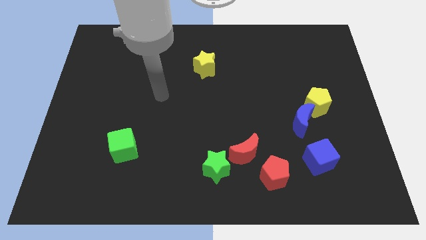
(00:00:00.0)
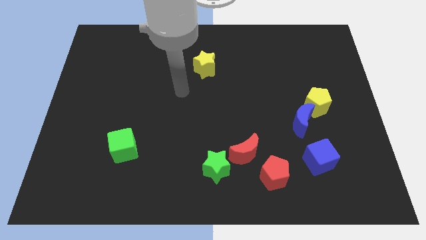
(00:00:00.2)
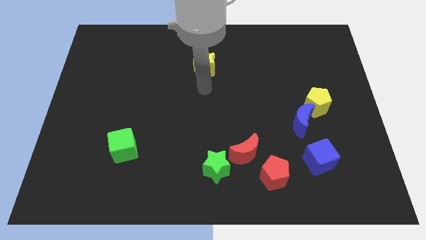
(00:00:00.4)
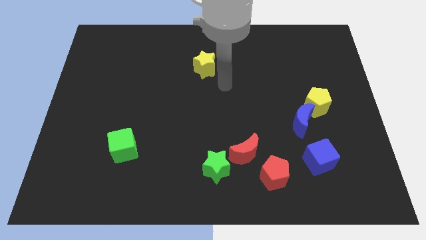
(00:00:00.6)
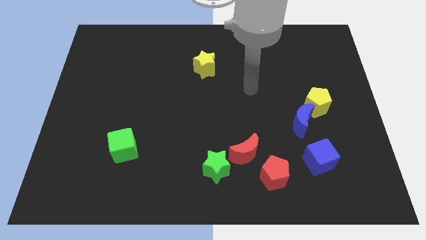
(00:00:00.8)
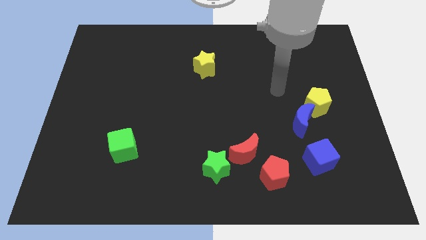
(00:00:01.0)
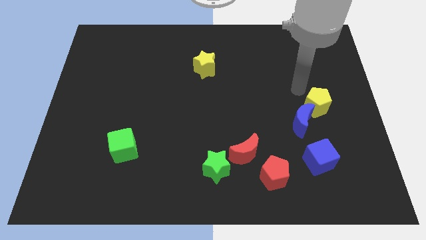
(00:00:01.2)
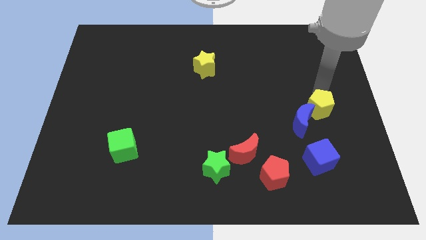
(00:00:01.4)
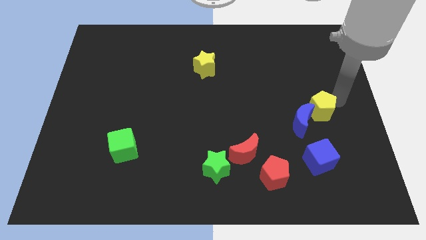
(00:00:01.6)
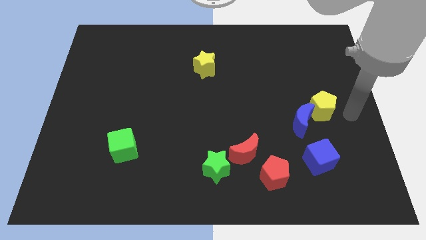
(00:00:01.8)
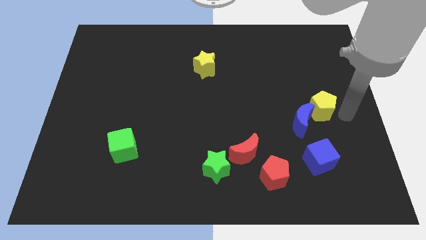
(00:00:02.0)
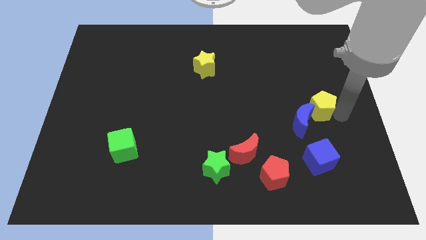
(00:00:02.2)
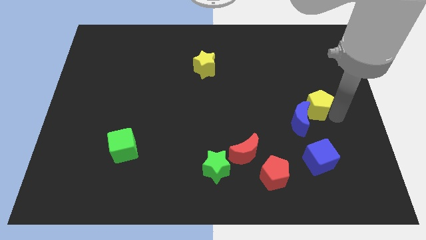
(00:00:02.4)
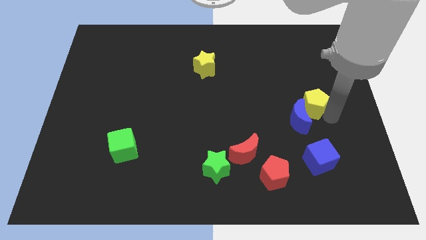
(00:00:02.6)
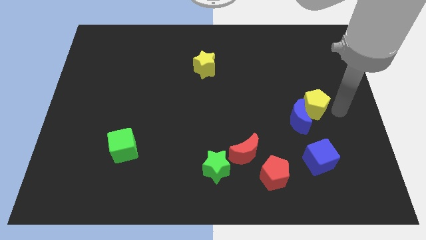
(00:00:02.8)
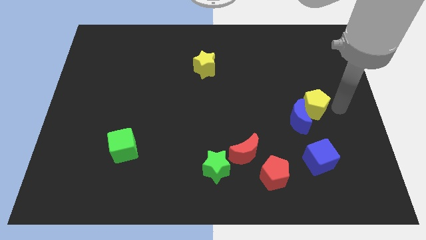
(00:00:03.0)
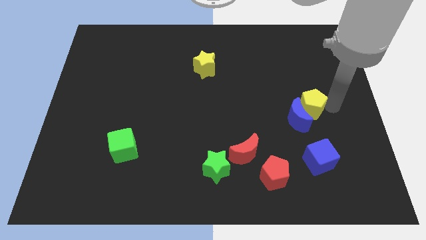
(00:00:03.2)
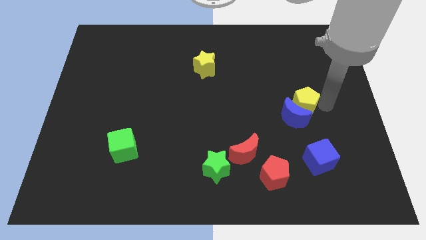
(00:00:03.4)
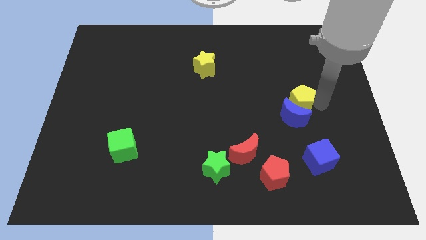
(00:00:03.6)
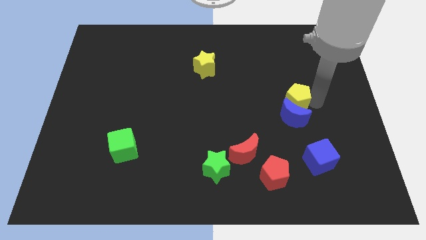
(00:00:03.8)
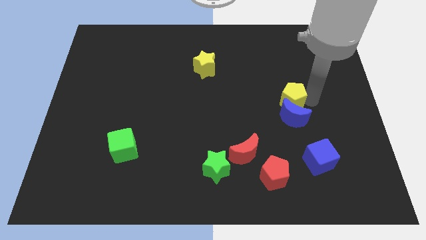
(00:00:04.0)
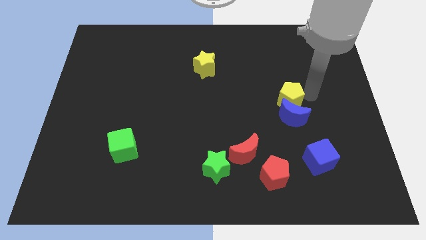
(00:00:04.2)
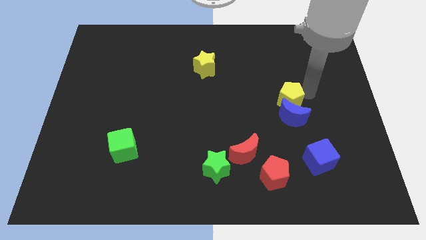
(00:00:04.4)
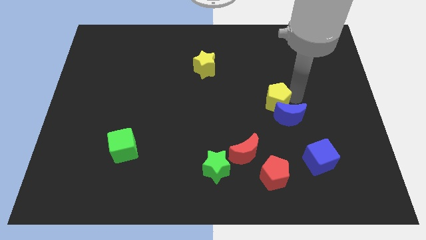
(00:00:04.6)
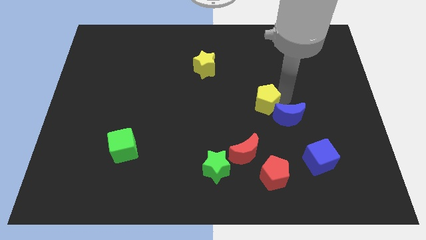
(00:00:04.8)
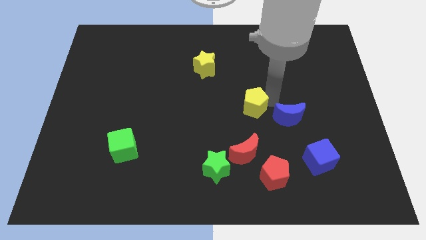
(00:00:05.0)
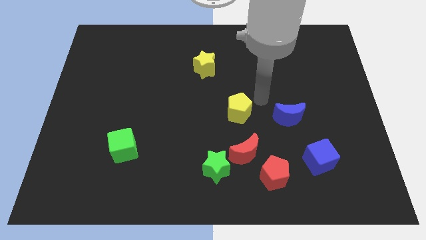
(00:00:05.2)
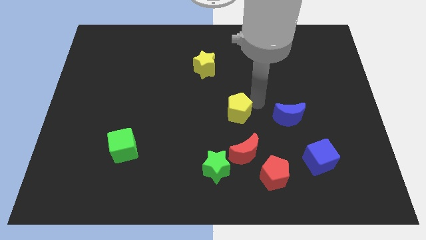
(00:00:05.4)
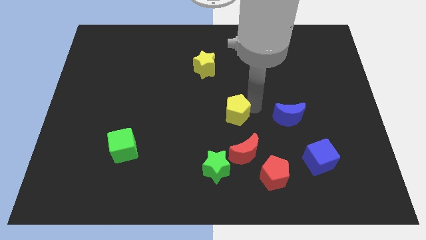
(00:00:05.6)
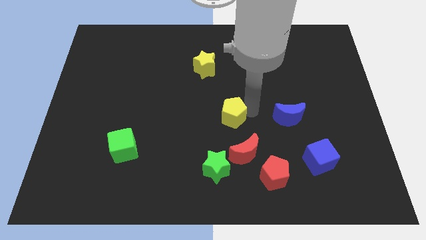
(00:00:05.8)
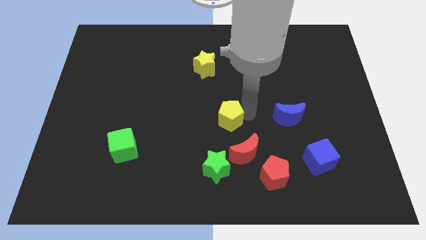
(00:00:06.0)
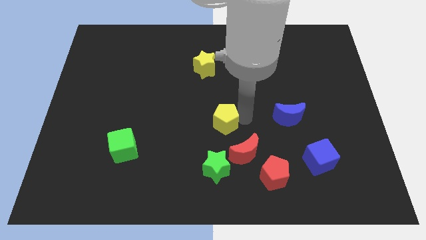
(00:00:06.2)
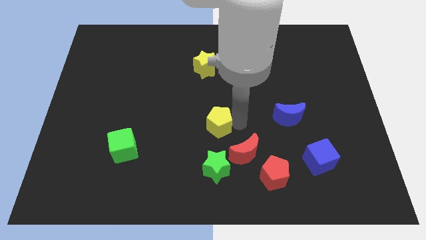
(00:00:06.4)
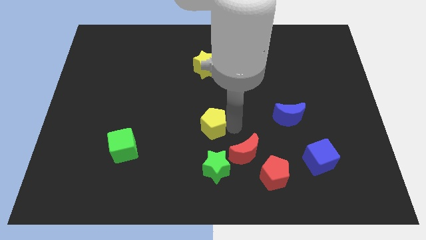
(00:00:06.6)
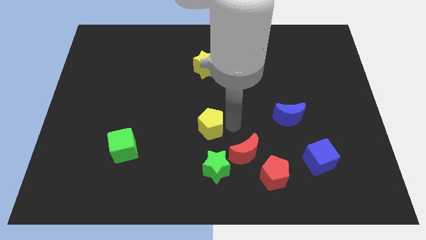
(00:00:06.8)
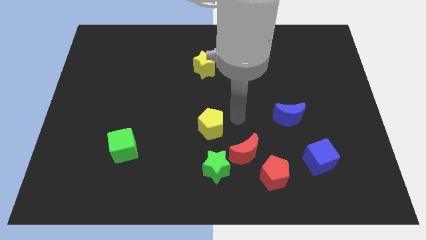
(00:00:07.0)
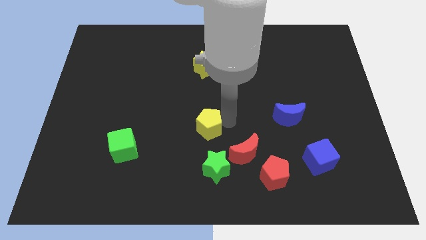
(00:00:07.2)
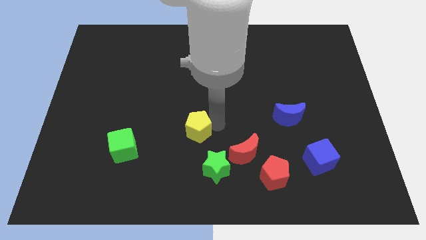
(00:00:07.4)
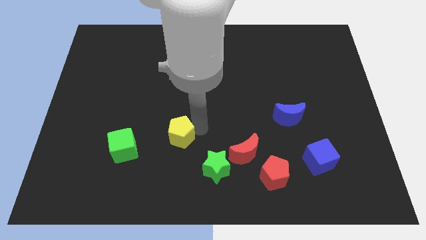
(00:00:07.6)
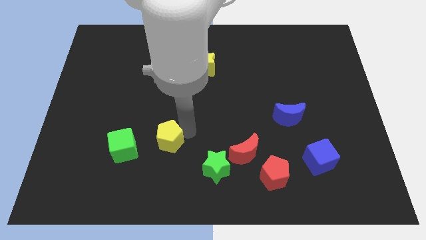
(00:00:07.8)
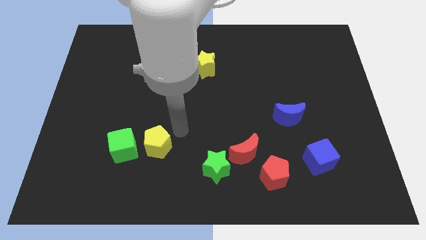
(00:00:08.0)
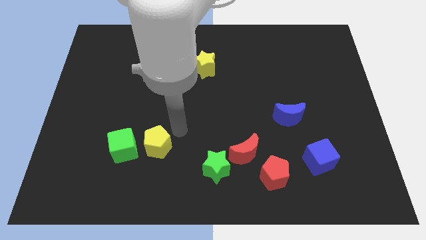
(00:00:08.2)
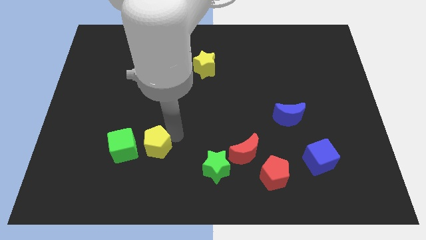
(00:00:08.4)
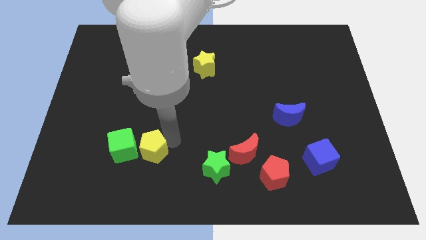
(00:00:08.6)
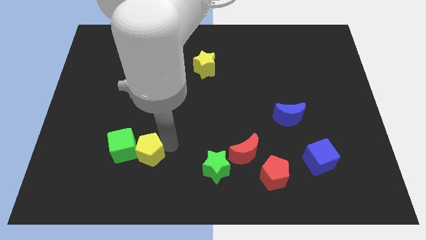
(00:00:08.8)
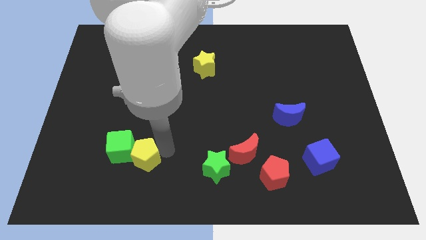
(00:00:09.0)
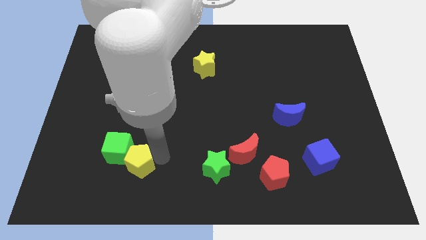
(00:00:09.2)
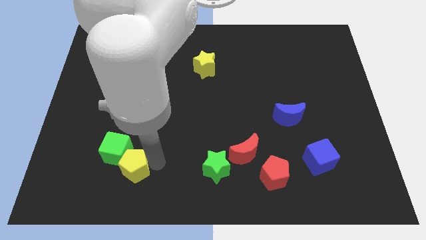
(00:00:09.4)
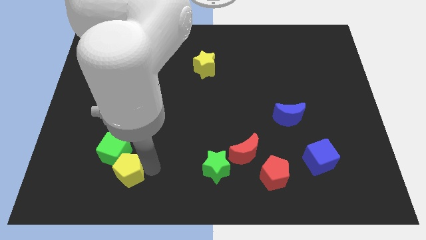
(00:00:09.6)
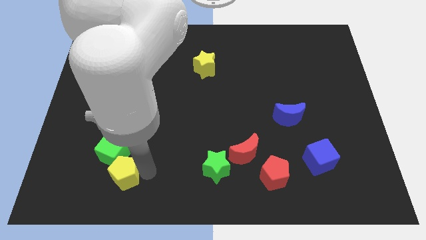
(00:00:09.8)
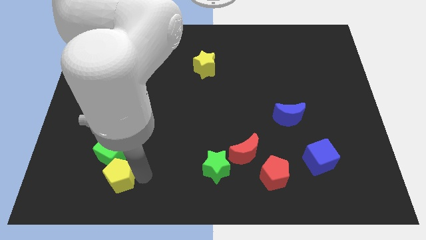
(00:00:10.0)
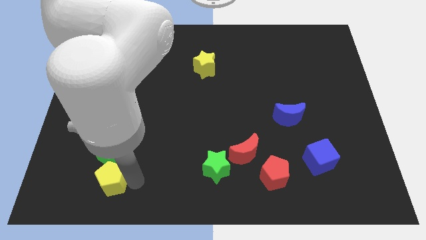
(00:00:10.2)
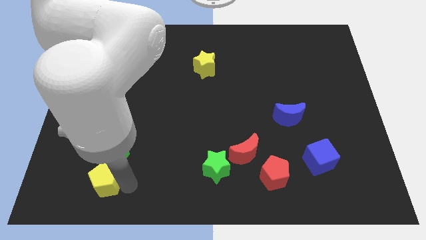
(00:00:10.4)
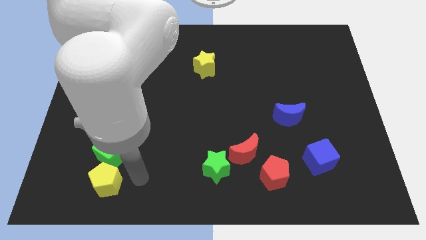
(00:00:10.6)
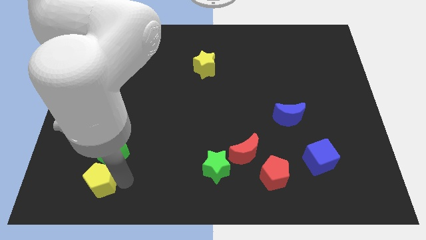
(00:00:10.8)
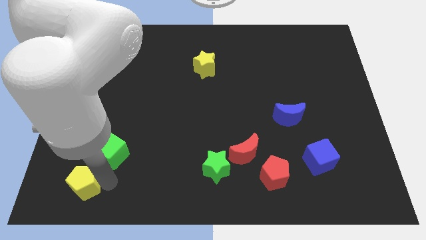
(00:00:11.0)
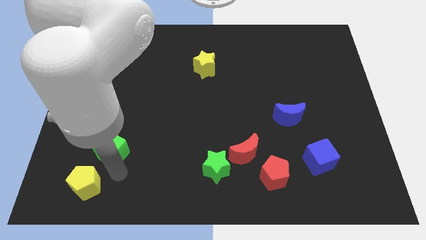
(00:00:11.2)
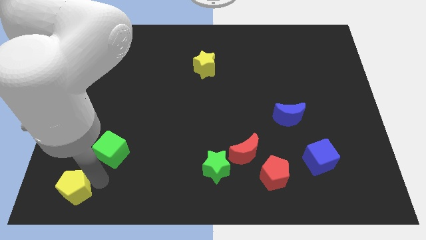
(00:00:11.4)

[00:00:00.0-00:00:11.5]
move the yellow pentagon to the bottom left of the board

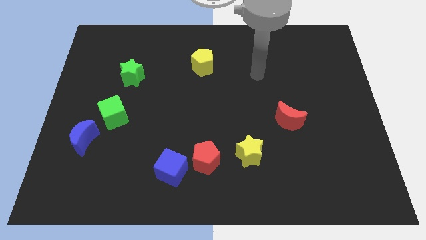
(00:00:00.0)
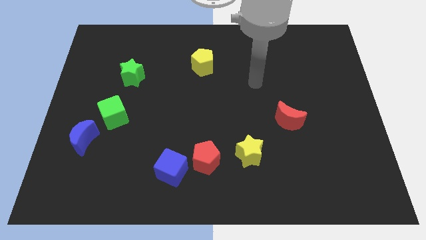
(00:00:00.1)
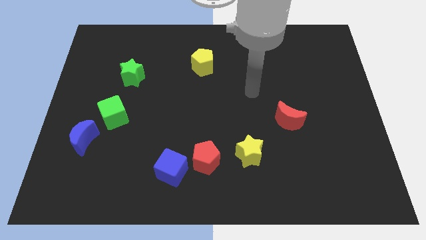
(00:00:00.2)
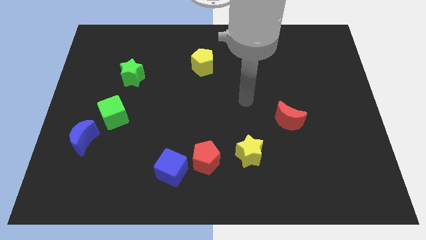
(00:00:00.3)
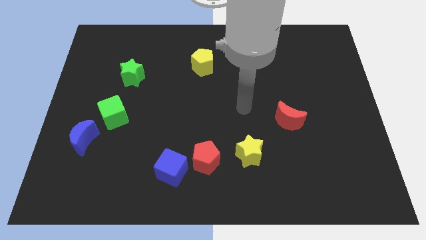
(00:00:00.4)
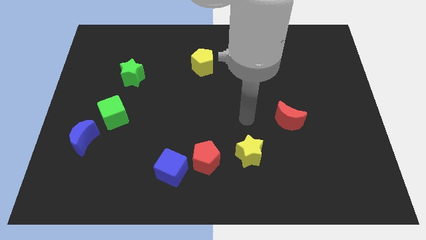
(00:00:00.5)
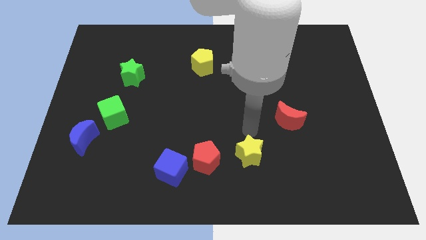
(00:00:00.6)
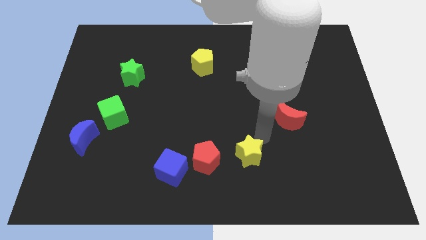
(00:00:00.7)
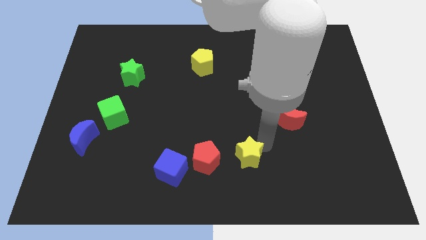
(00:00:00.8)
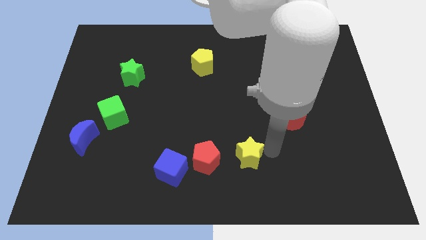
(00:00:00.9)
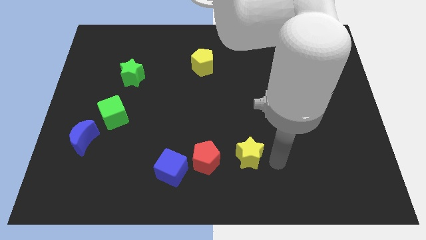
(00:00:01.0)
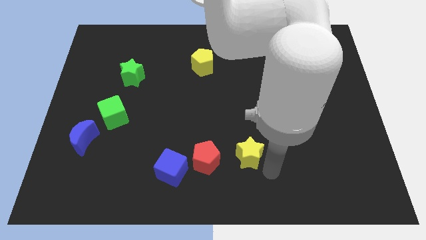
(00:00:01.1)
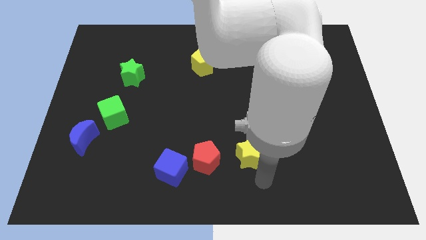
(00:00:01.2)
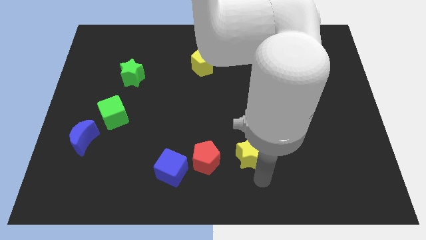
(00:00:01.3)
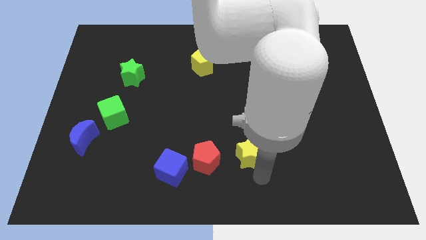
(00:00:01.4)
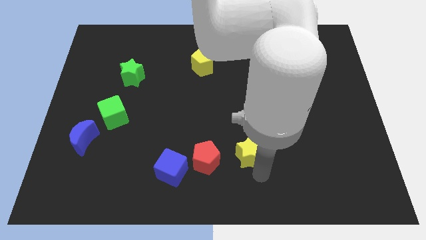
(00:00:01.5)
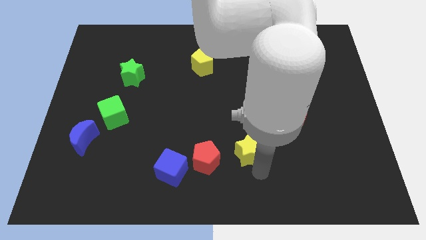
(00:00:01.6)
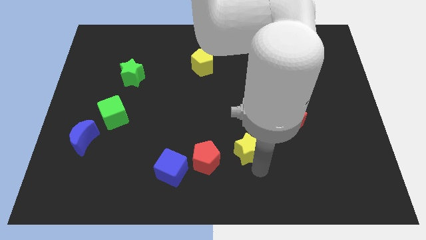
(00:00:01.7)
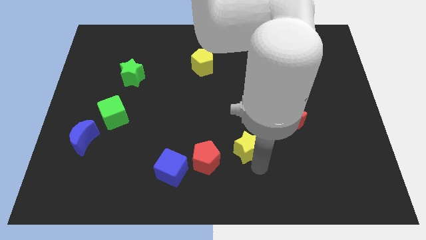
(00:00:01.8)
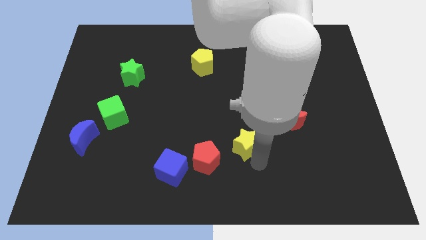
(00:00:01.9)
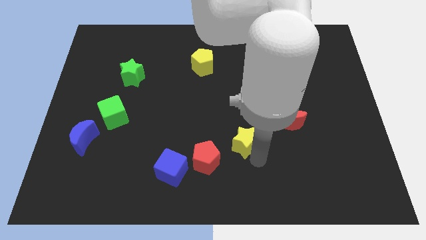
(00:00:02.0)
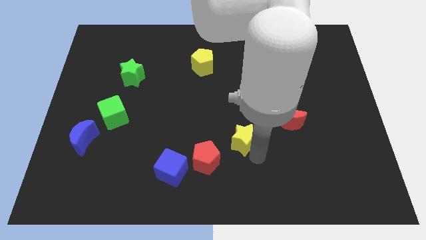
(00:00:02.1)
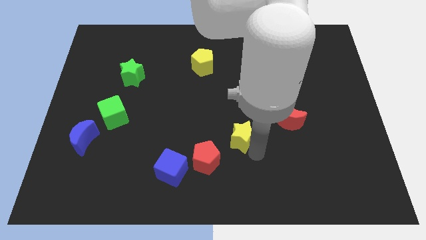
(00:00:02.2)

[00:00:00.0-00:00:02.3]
slide the yellow star to the center of the board
